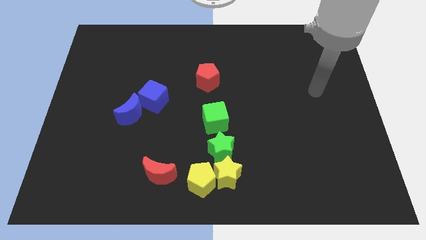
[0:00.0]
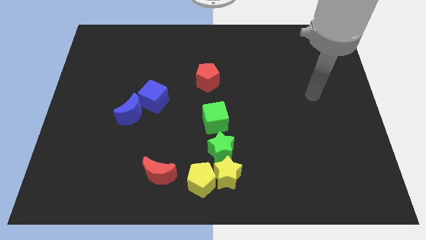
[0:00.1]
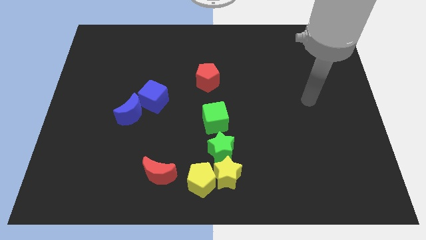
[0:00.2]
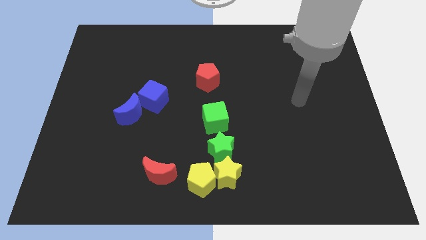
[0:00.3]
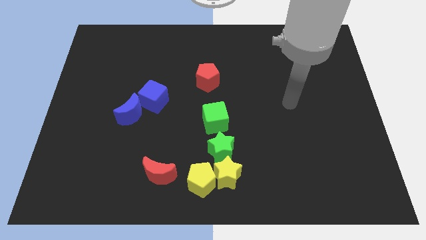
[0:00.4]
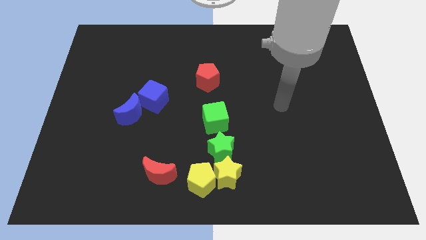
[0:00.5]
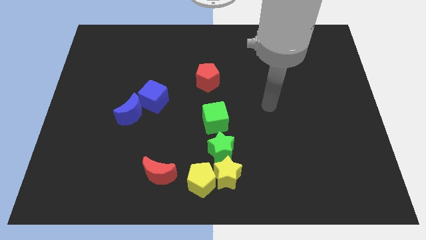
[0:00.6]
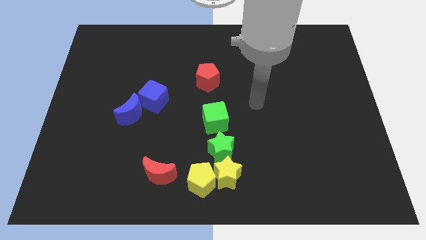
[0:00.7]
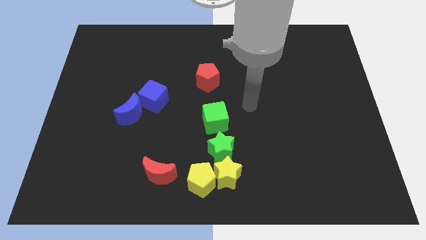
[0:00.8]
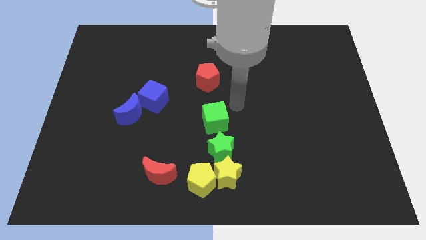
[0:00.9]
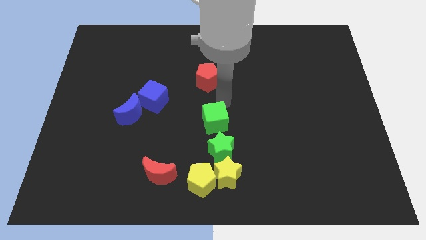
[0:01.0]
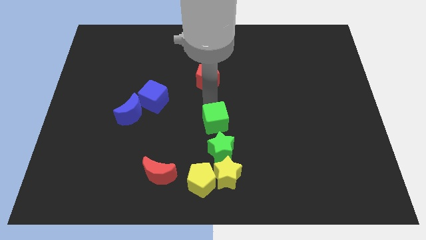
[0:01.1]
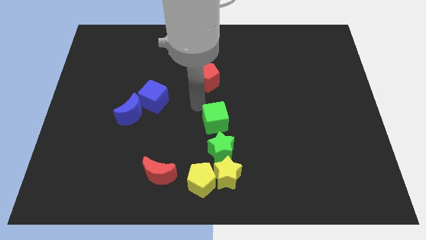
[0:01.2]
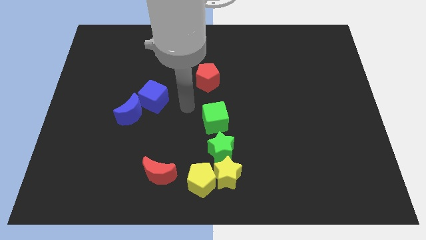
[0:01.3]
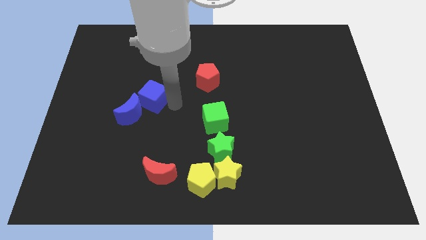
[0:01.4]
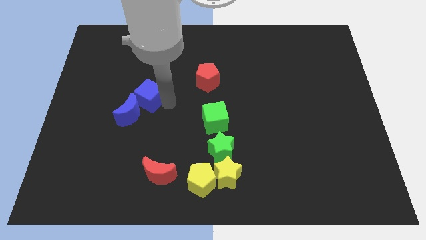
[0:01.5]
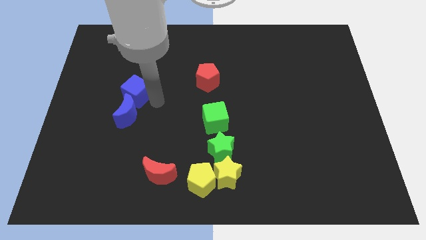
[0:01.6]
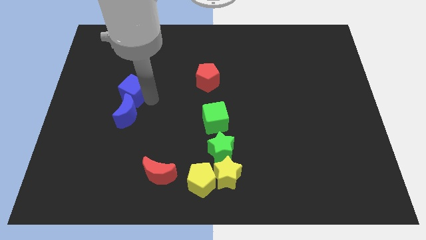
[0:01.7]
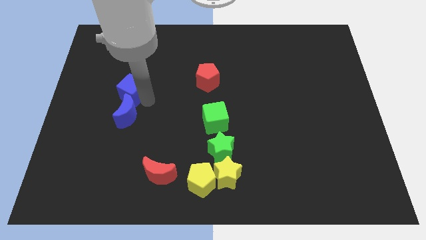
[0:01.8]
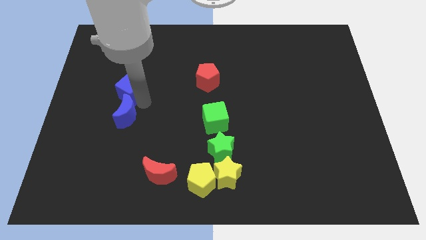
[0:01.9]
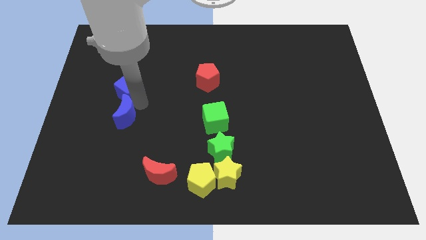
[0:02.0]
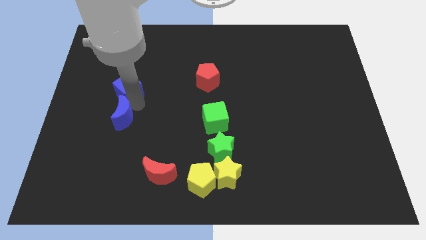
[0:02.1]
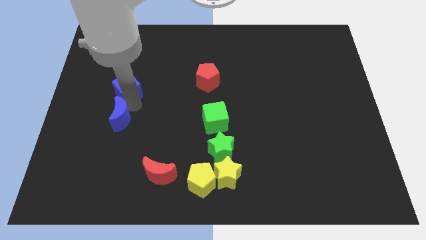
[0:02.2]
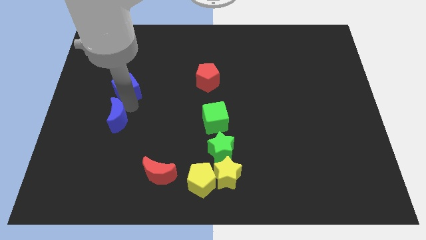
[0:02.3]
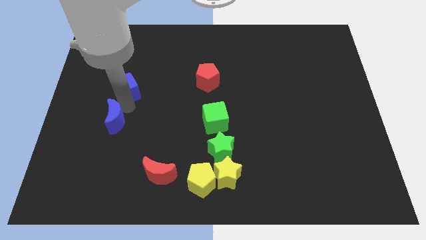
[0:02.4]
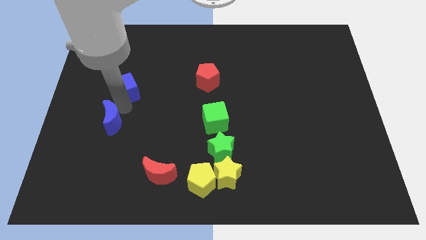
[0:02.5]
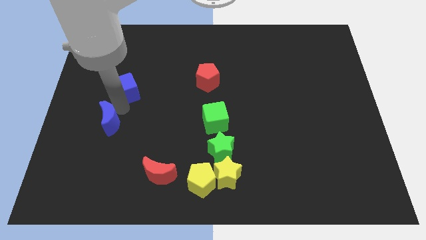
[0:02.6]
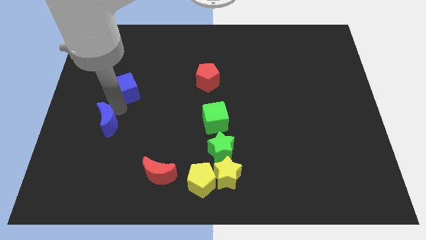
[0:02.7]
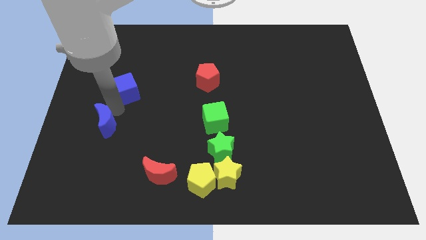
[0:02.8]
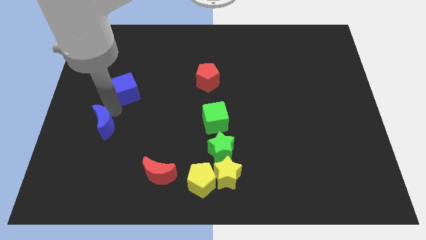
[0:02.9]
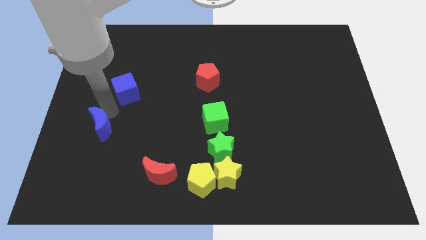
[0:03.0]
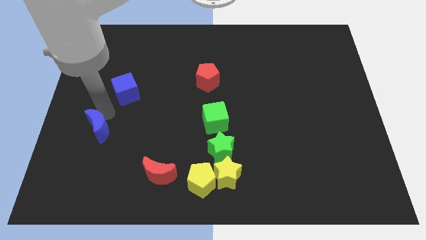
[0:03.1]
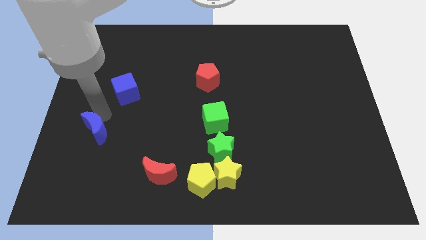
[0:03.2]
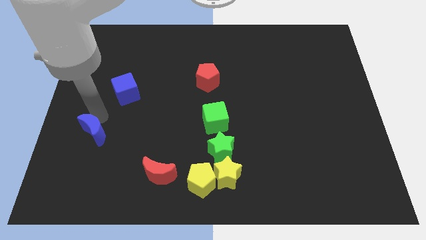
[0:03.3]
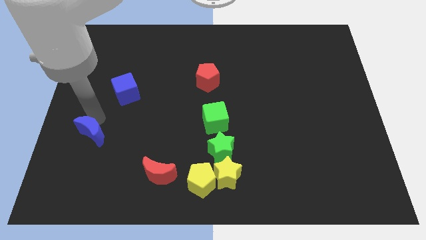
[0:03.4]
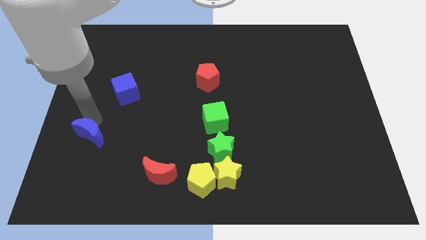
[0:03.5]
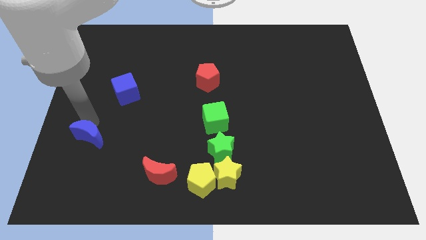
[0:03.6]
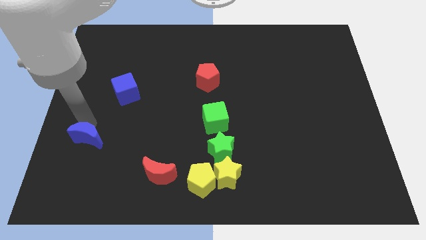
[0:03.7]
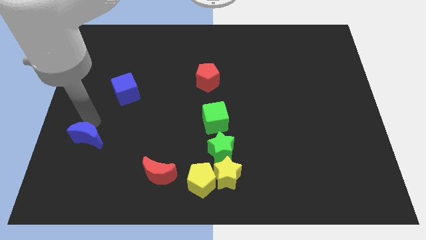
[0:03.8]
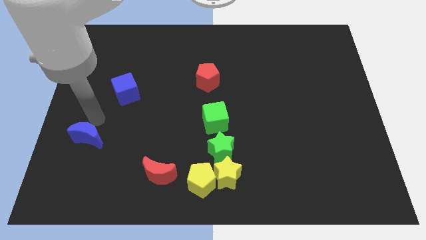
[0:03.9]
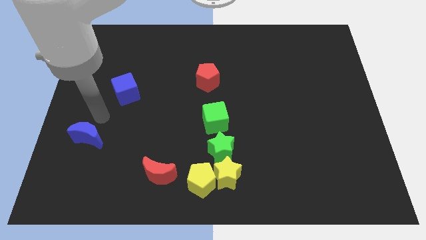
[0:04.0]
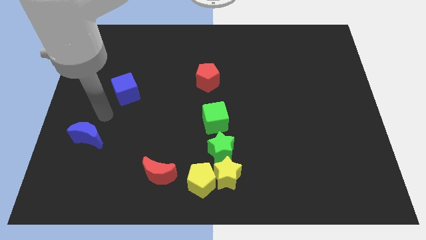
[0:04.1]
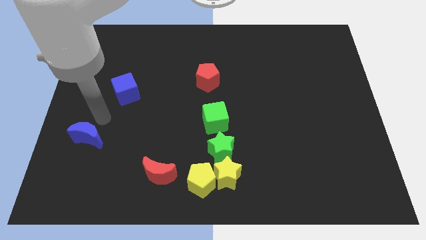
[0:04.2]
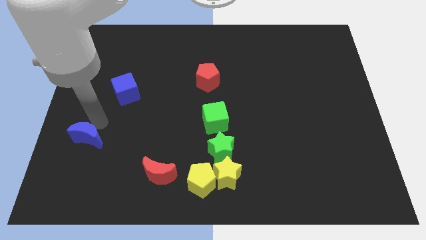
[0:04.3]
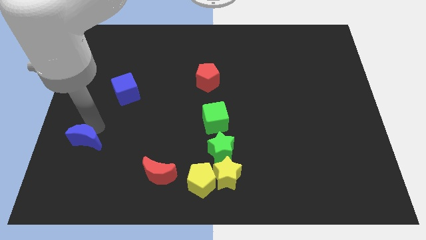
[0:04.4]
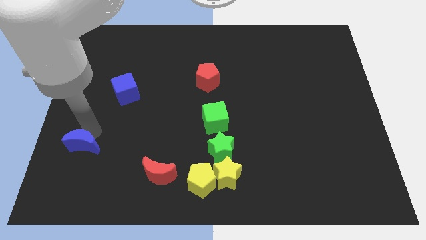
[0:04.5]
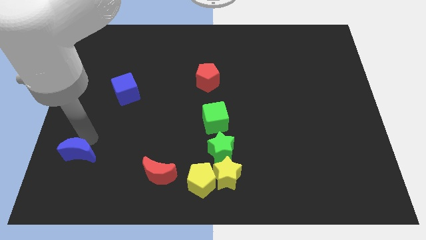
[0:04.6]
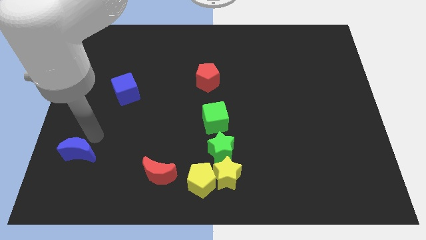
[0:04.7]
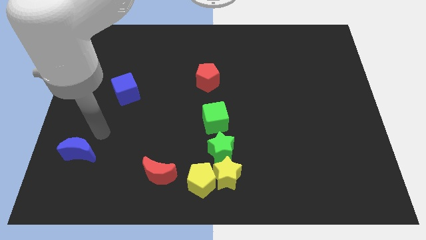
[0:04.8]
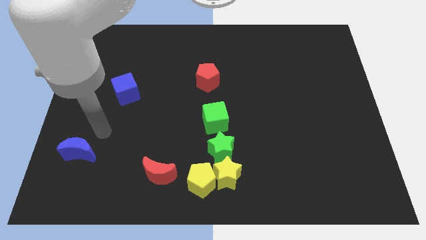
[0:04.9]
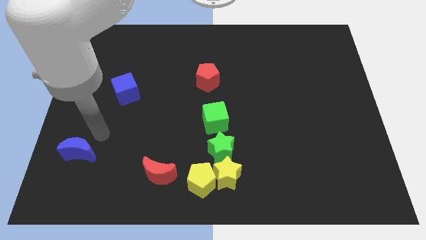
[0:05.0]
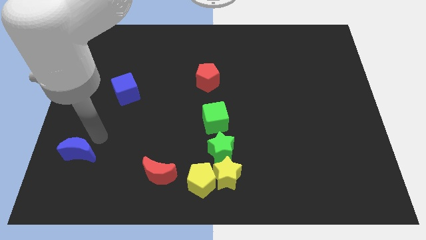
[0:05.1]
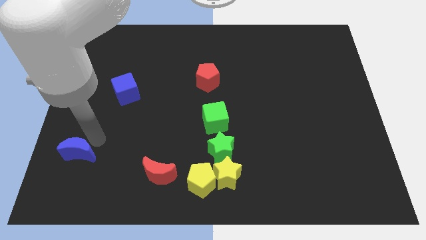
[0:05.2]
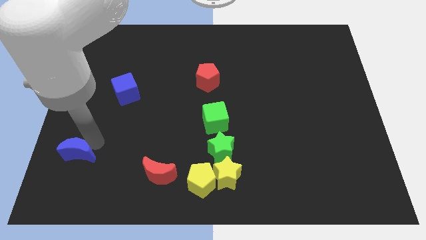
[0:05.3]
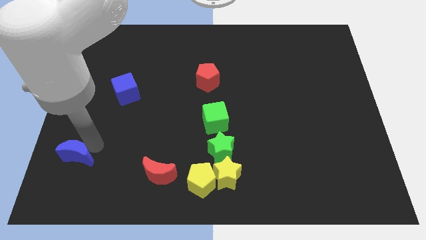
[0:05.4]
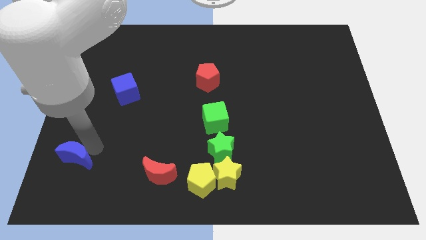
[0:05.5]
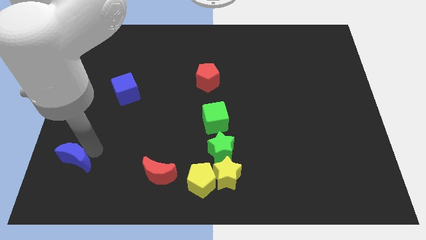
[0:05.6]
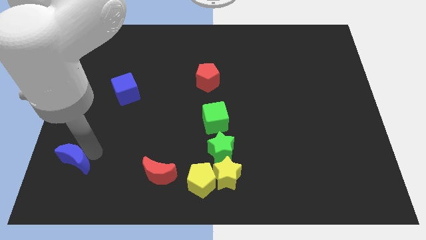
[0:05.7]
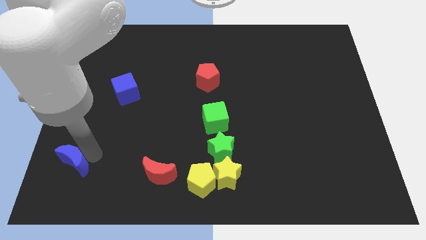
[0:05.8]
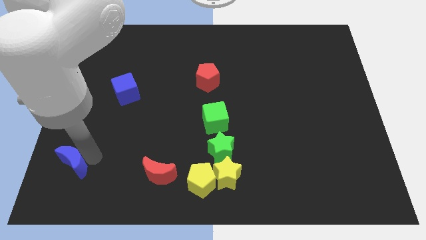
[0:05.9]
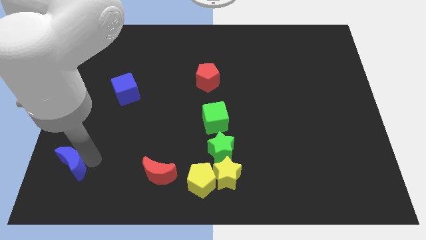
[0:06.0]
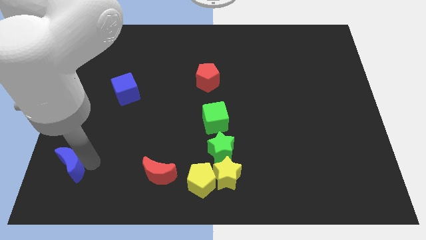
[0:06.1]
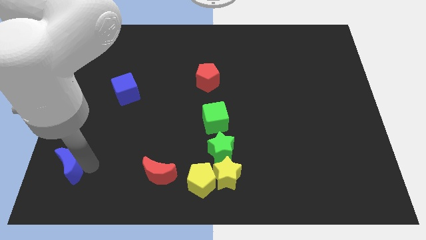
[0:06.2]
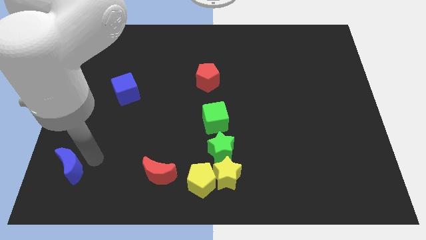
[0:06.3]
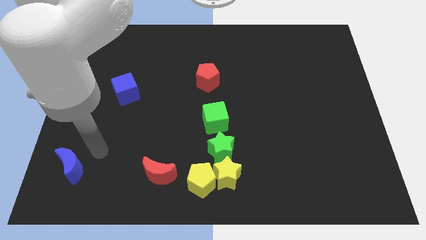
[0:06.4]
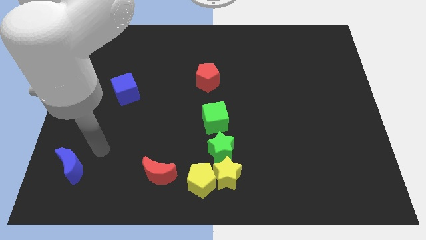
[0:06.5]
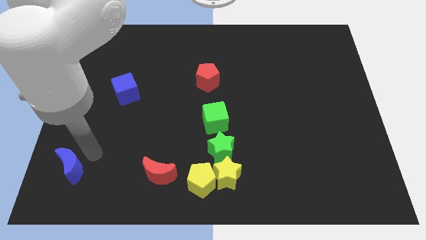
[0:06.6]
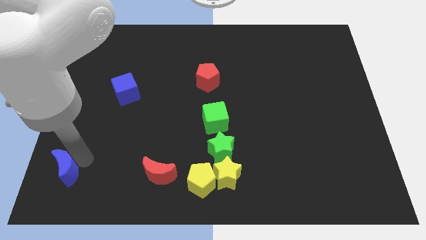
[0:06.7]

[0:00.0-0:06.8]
slide the blue moon to the bottom left
